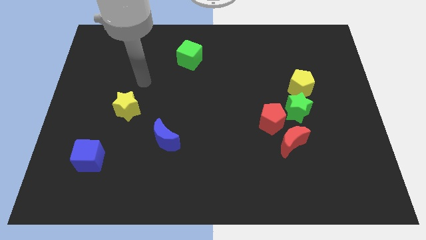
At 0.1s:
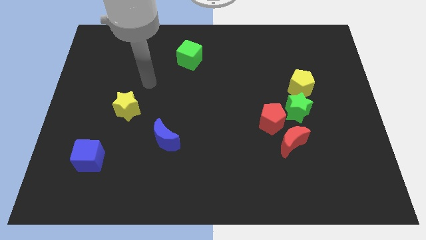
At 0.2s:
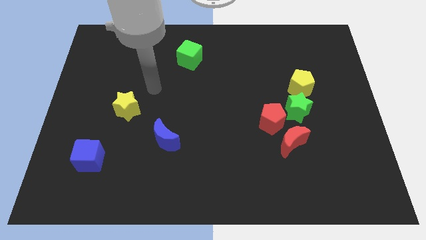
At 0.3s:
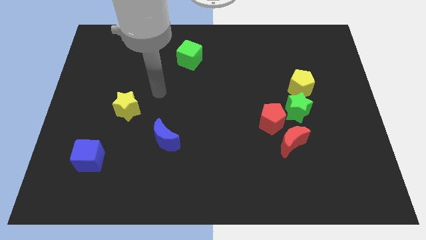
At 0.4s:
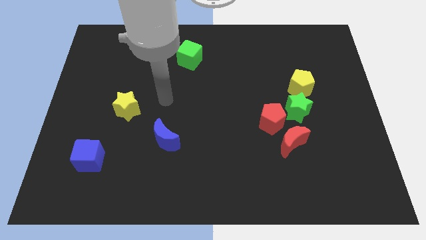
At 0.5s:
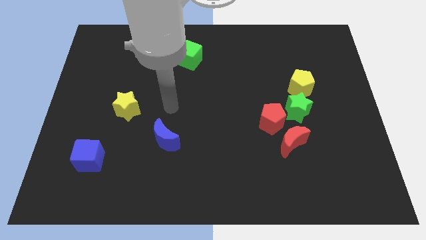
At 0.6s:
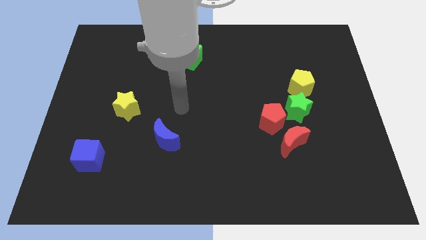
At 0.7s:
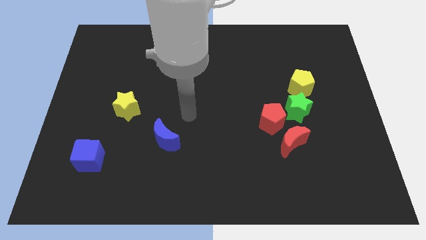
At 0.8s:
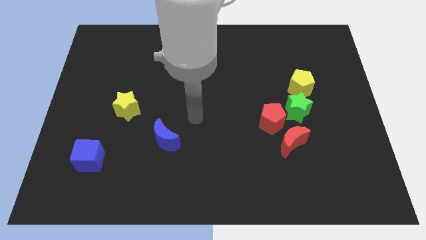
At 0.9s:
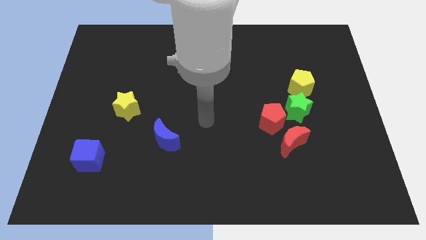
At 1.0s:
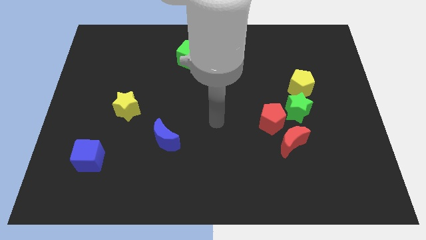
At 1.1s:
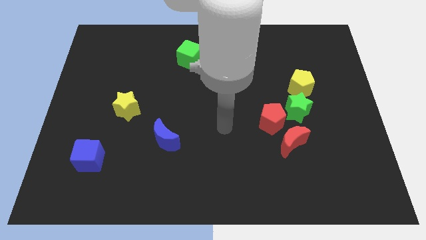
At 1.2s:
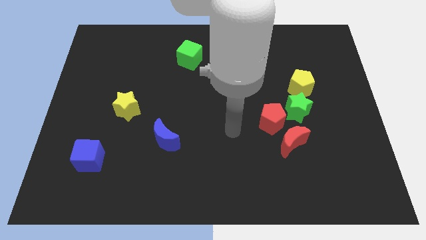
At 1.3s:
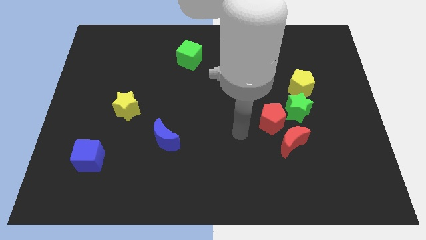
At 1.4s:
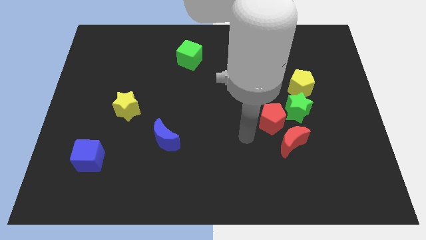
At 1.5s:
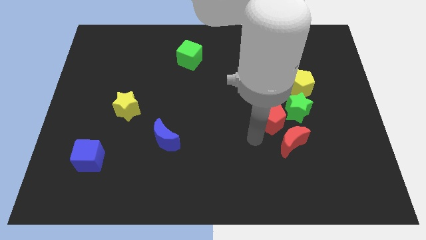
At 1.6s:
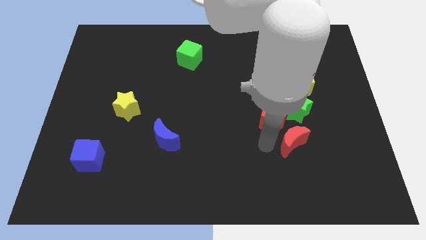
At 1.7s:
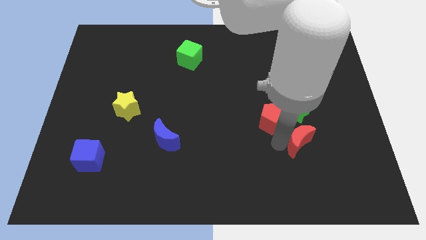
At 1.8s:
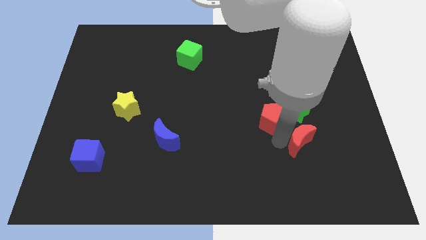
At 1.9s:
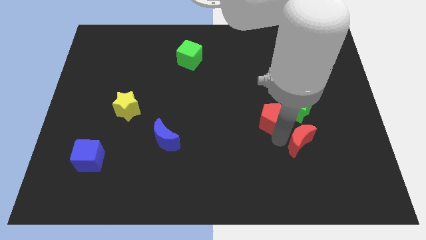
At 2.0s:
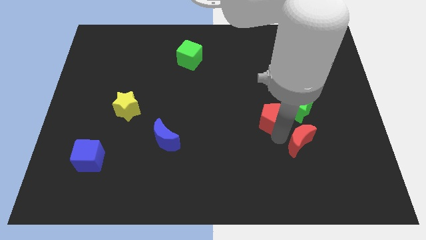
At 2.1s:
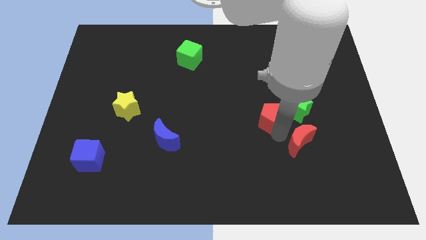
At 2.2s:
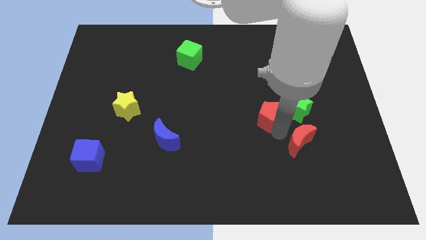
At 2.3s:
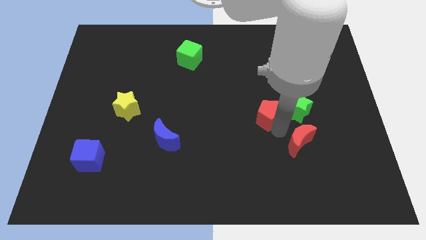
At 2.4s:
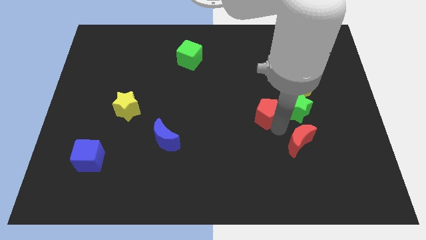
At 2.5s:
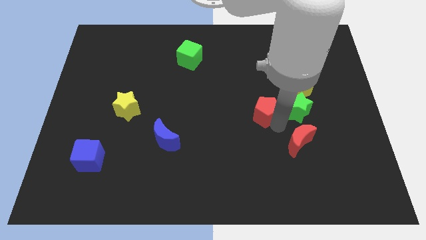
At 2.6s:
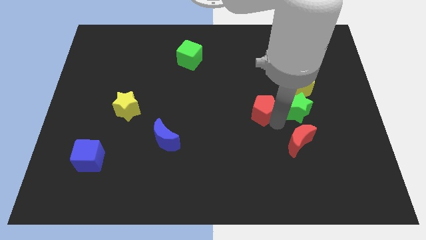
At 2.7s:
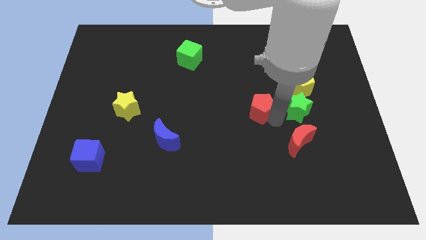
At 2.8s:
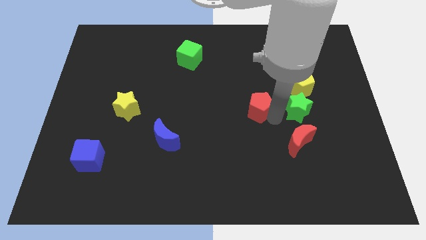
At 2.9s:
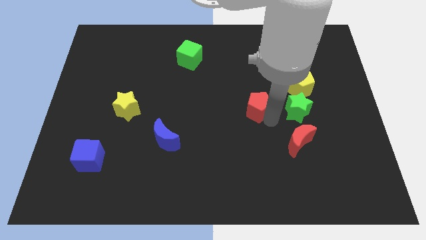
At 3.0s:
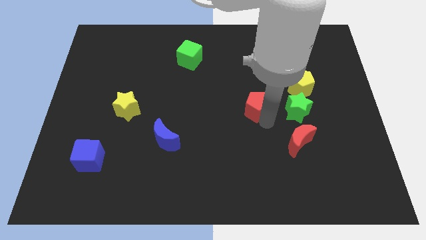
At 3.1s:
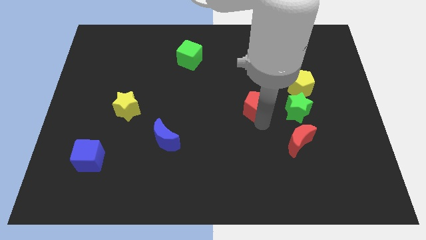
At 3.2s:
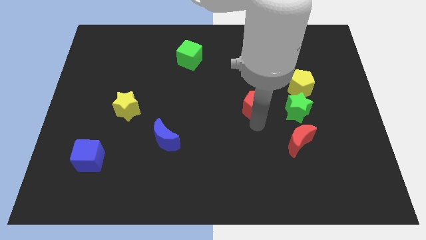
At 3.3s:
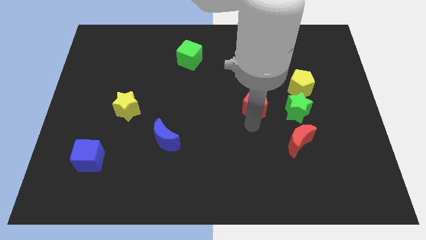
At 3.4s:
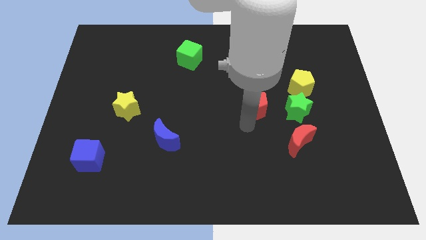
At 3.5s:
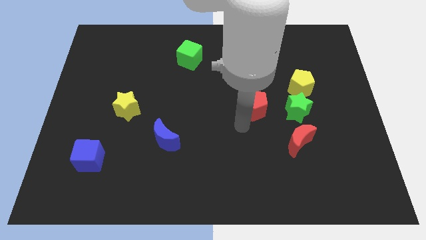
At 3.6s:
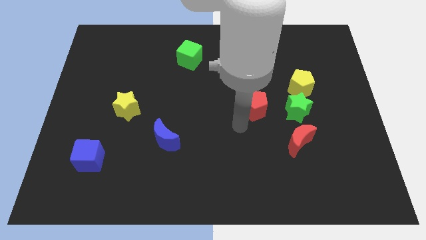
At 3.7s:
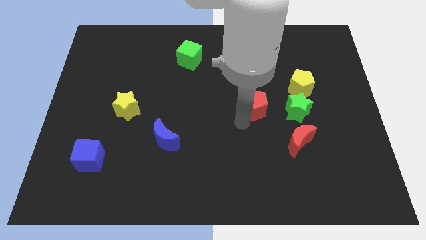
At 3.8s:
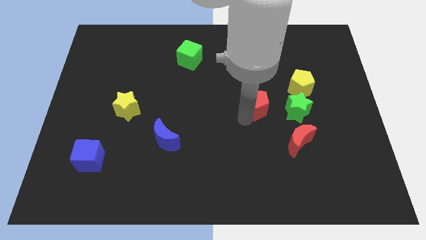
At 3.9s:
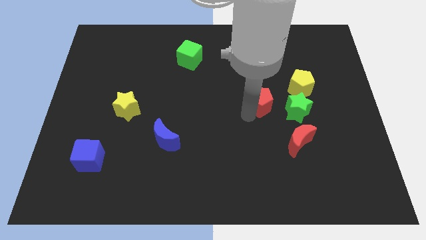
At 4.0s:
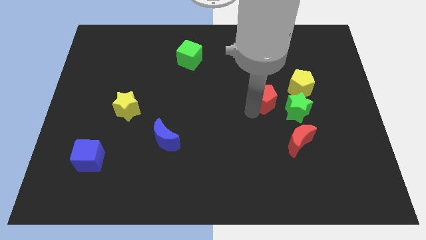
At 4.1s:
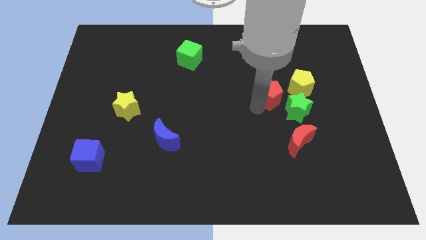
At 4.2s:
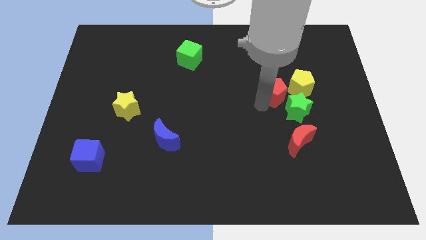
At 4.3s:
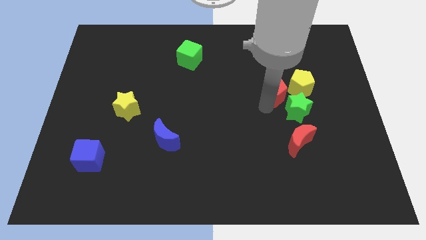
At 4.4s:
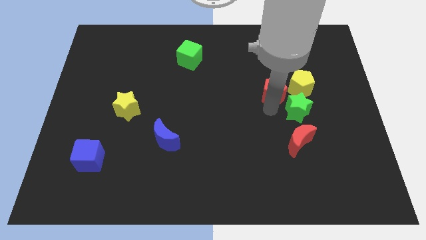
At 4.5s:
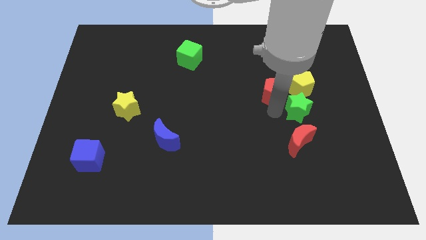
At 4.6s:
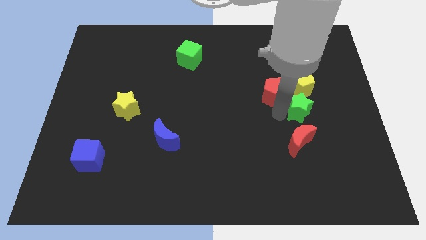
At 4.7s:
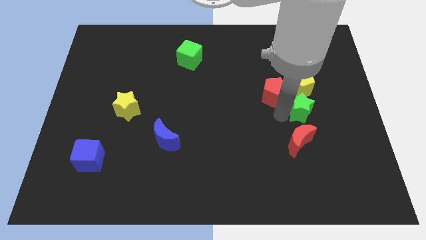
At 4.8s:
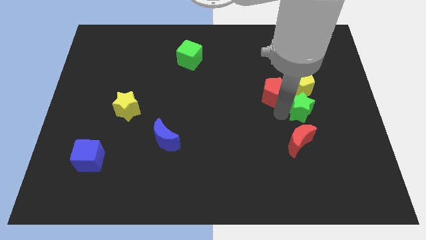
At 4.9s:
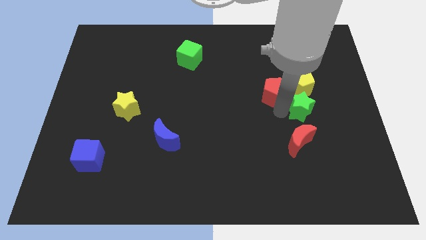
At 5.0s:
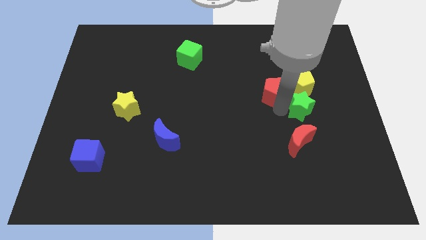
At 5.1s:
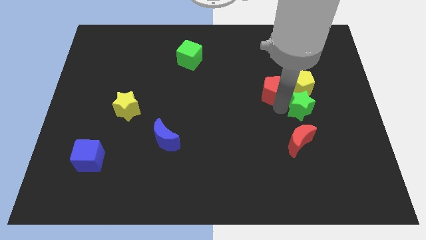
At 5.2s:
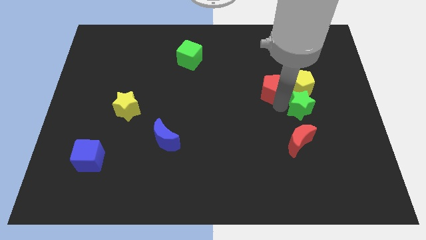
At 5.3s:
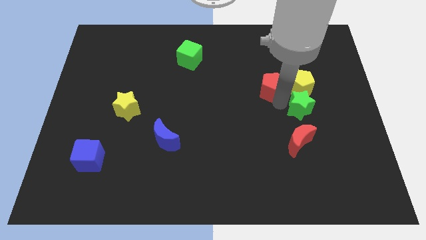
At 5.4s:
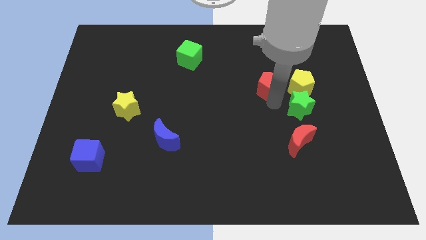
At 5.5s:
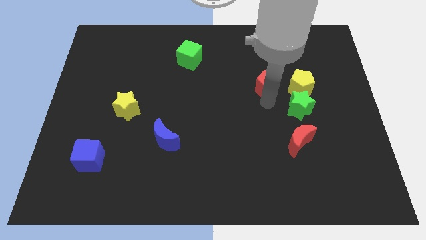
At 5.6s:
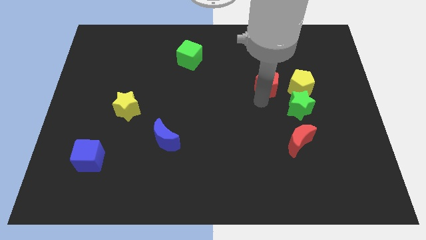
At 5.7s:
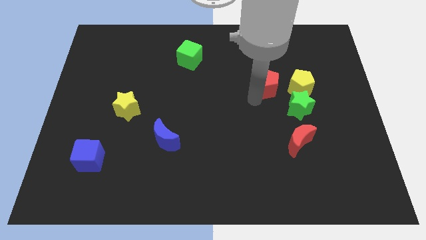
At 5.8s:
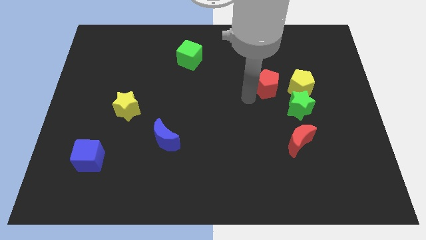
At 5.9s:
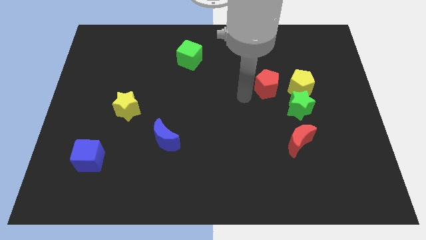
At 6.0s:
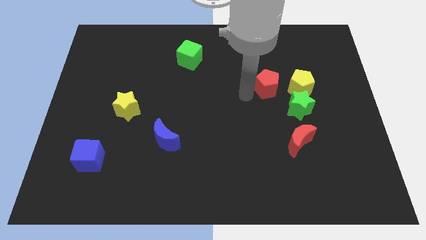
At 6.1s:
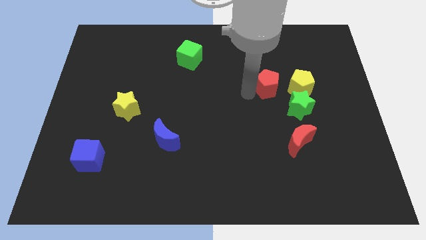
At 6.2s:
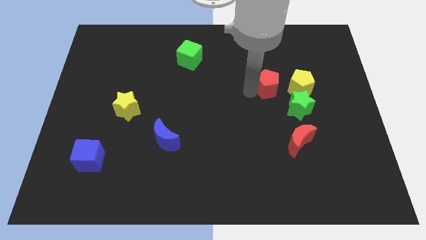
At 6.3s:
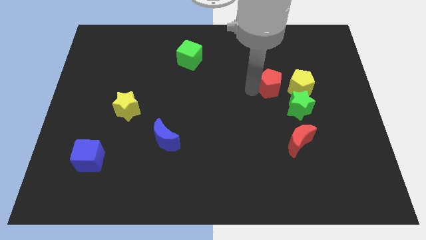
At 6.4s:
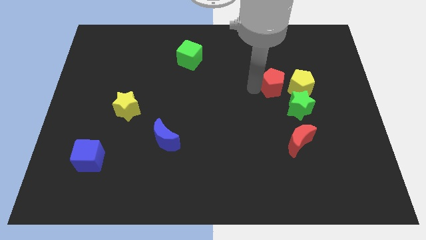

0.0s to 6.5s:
push the red pentagon a little up and to the right diagonally

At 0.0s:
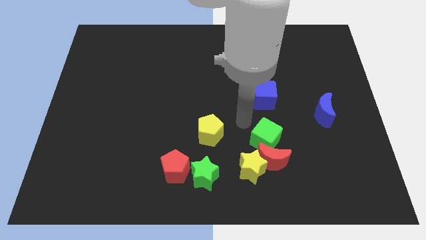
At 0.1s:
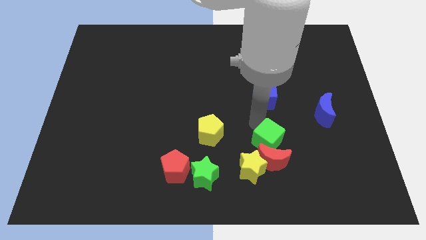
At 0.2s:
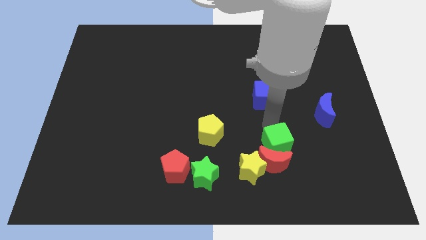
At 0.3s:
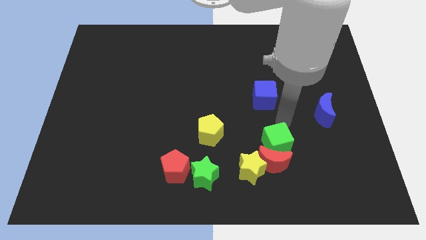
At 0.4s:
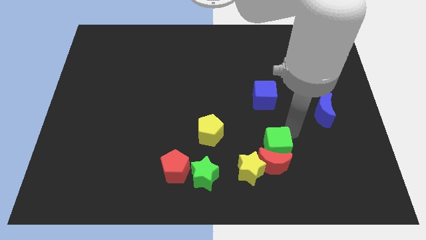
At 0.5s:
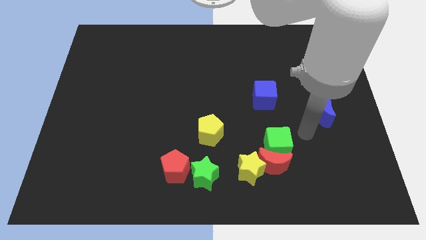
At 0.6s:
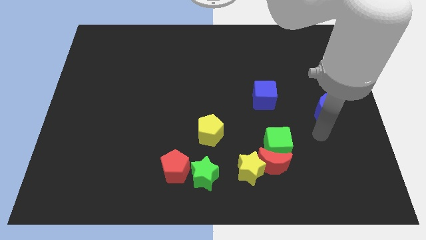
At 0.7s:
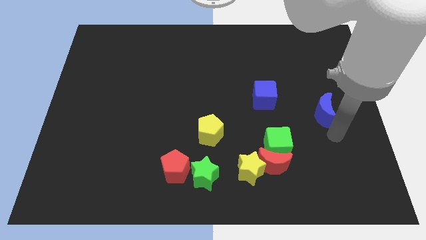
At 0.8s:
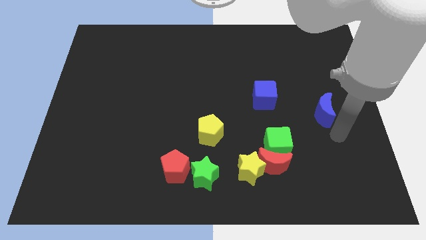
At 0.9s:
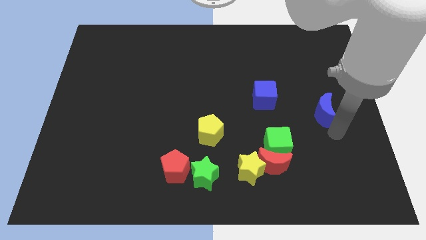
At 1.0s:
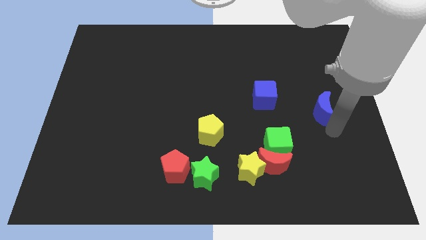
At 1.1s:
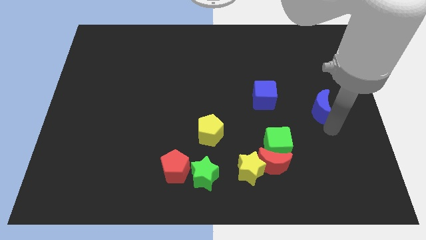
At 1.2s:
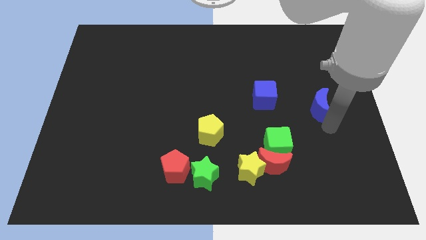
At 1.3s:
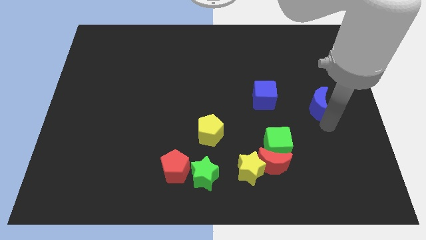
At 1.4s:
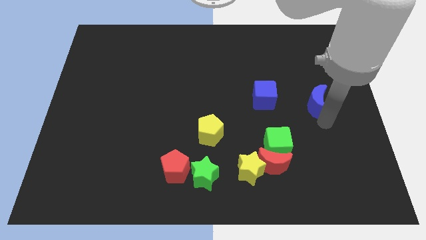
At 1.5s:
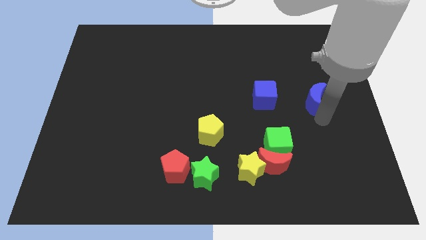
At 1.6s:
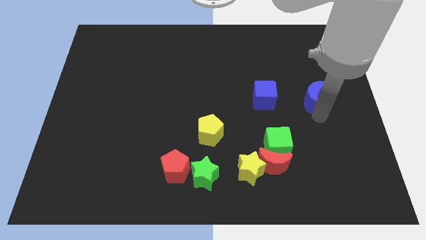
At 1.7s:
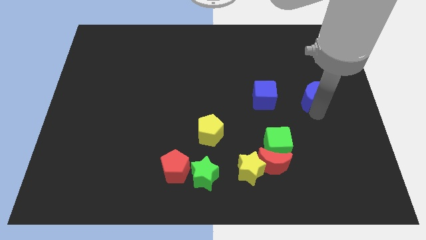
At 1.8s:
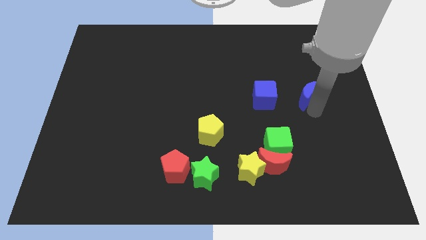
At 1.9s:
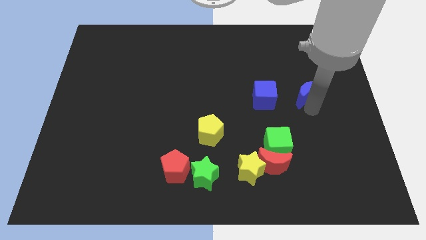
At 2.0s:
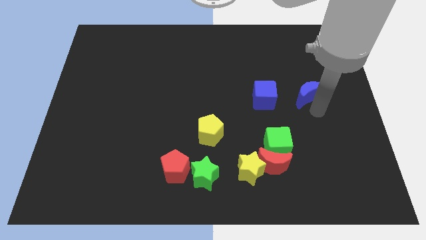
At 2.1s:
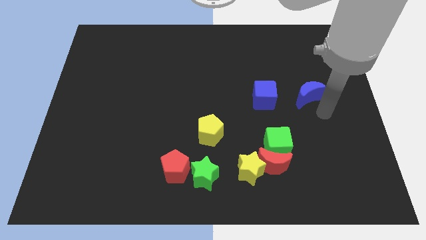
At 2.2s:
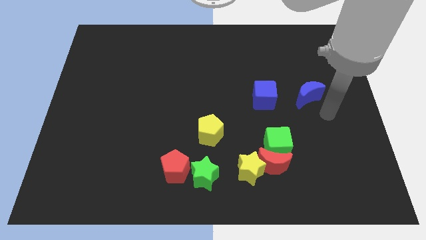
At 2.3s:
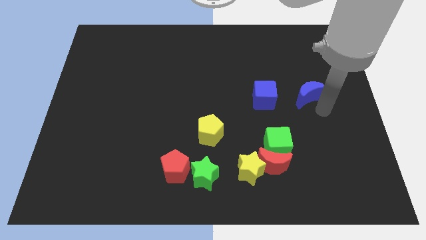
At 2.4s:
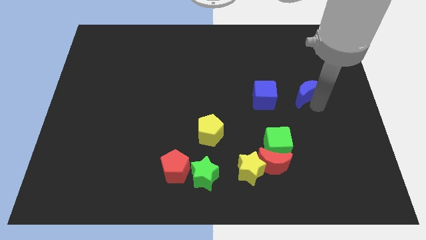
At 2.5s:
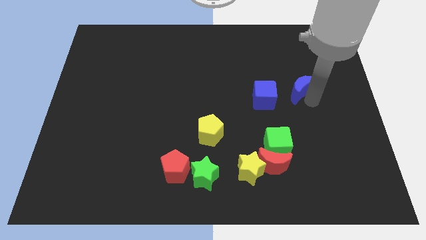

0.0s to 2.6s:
slightly slide the blue moon up and left diagonally
